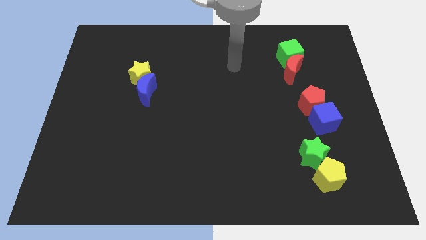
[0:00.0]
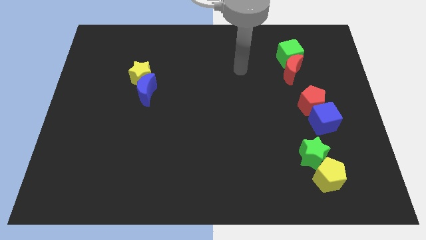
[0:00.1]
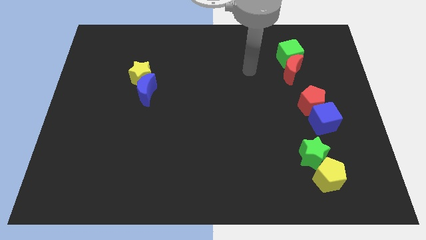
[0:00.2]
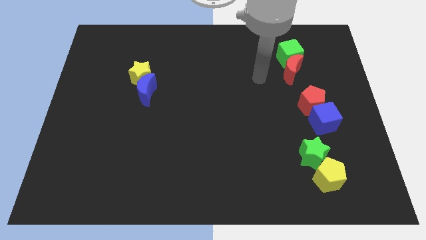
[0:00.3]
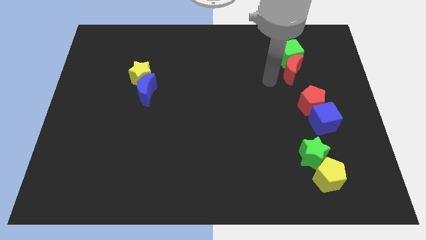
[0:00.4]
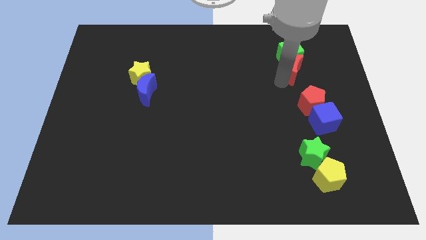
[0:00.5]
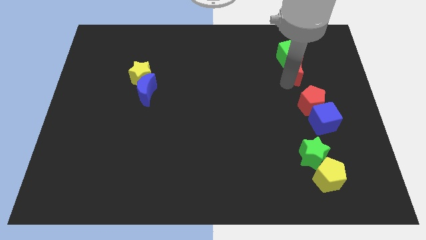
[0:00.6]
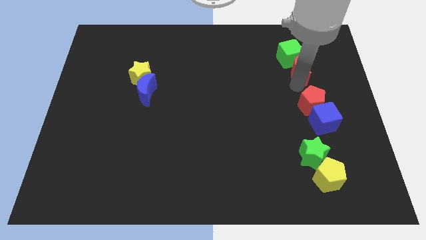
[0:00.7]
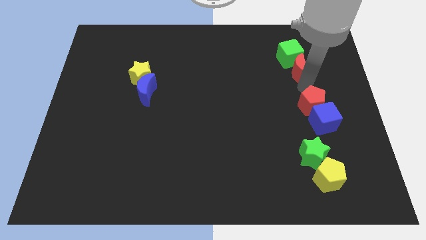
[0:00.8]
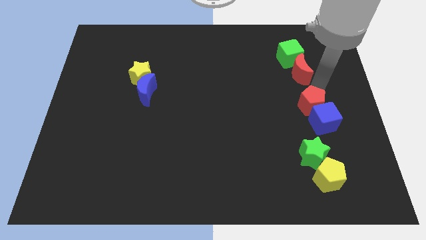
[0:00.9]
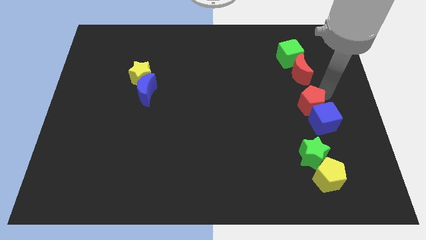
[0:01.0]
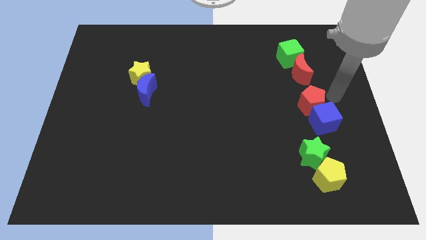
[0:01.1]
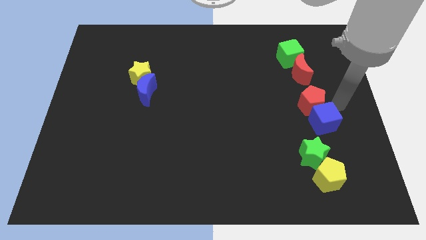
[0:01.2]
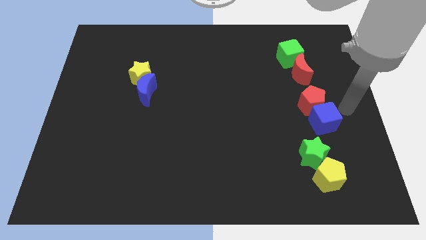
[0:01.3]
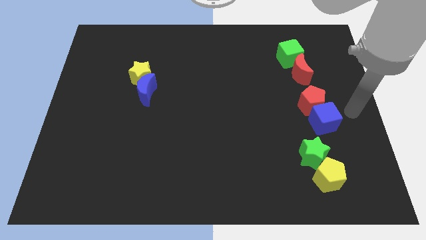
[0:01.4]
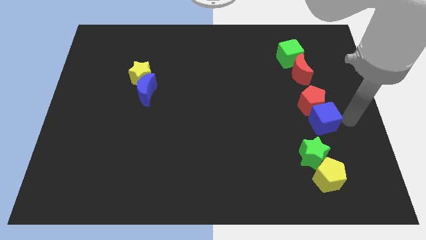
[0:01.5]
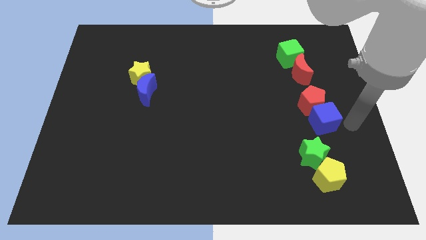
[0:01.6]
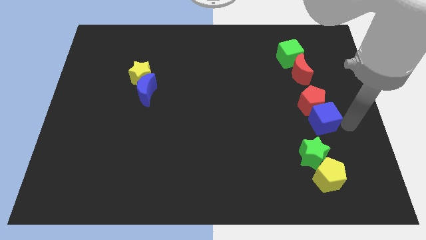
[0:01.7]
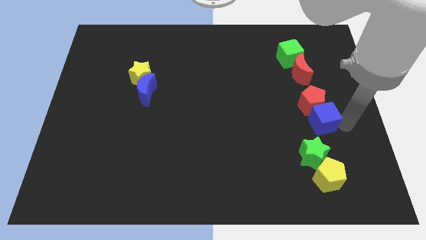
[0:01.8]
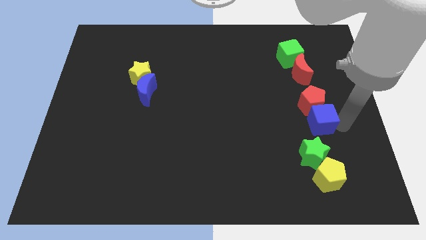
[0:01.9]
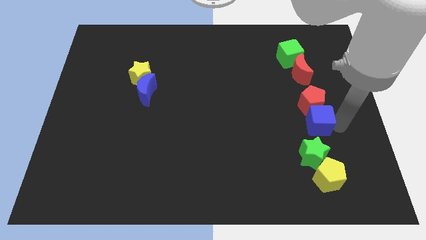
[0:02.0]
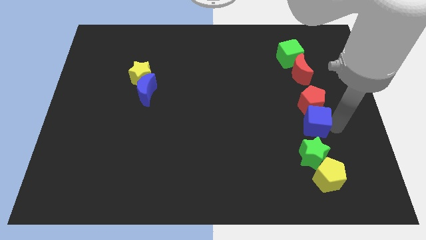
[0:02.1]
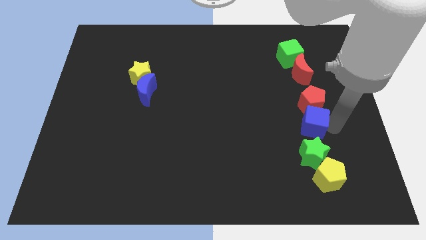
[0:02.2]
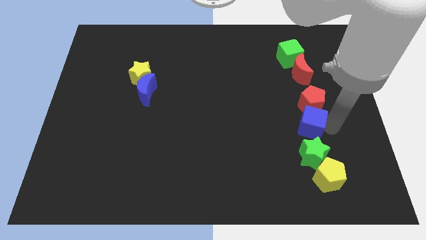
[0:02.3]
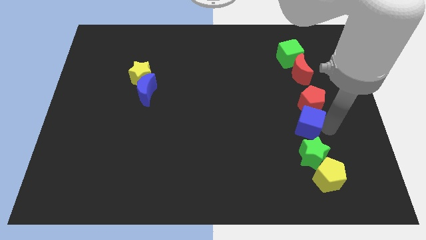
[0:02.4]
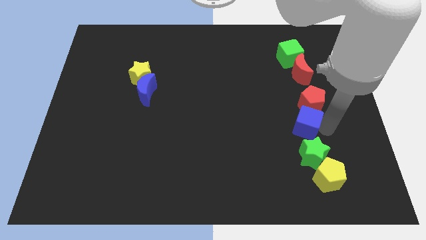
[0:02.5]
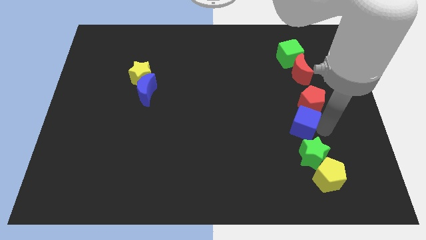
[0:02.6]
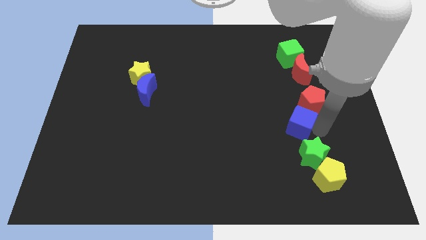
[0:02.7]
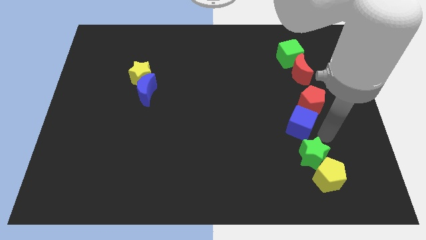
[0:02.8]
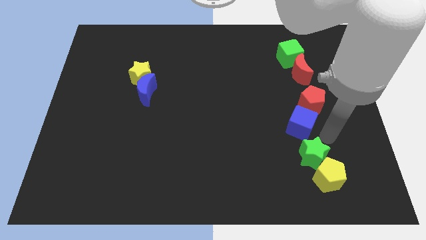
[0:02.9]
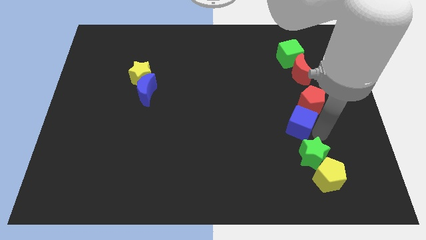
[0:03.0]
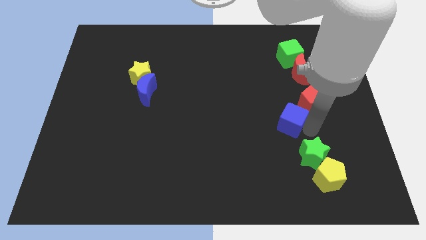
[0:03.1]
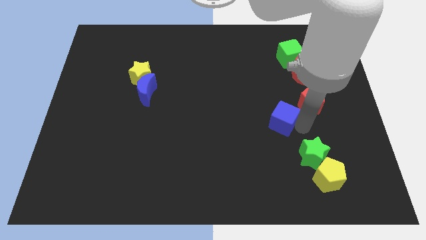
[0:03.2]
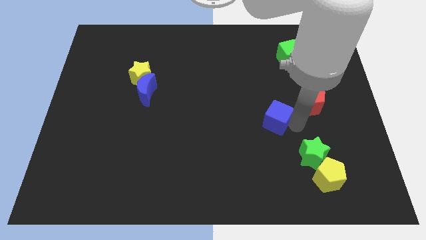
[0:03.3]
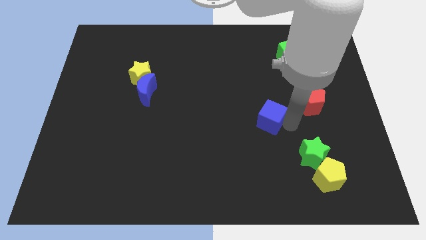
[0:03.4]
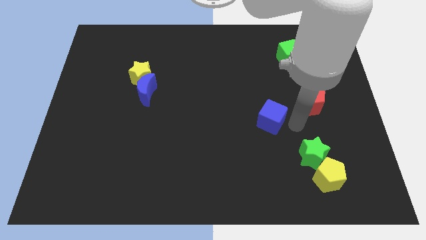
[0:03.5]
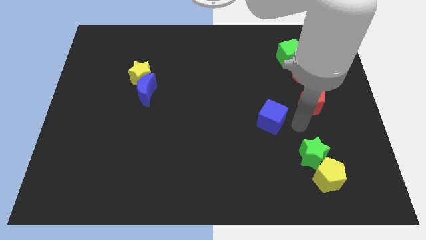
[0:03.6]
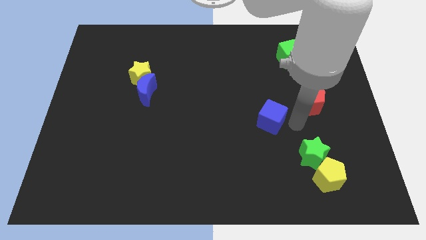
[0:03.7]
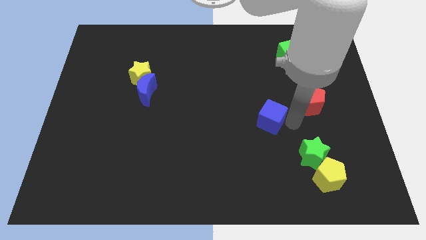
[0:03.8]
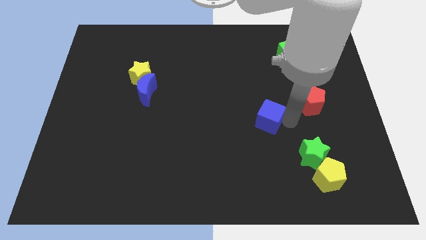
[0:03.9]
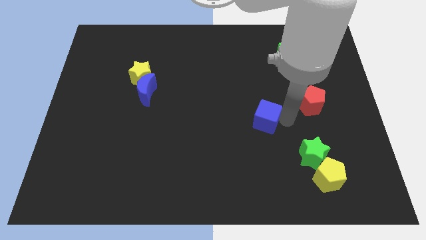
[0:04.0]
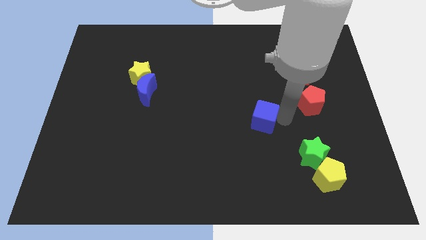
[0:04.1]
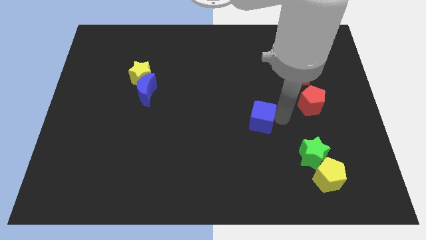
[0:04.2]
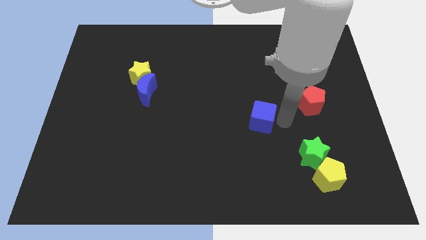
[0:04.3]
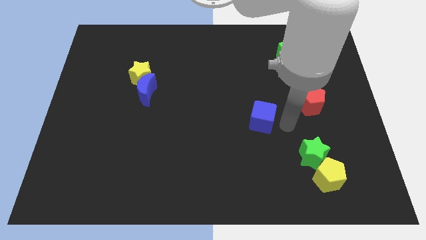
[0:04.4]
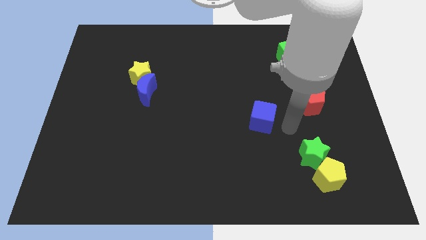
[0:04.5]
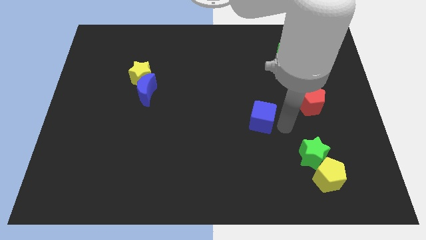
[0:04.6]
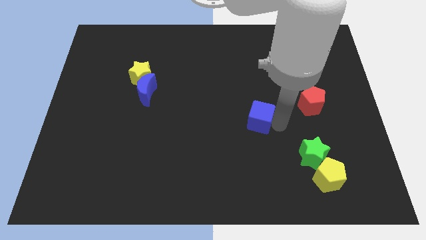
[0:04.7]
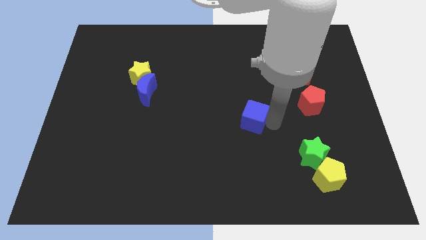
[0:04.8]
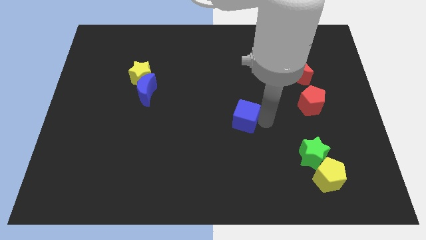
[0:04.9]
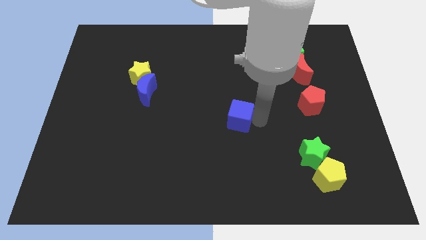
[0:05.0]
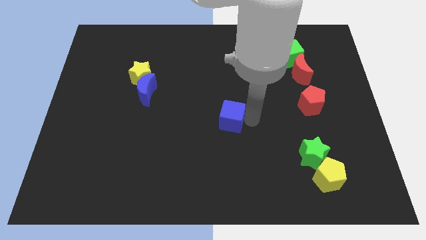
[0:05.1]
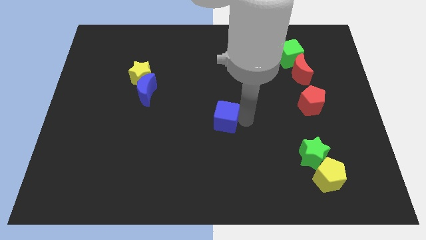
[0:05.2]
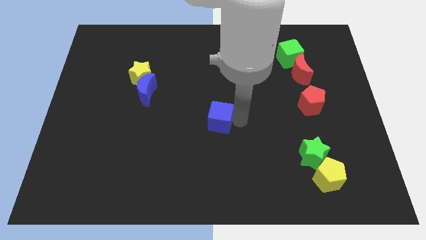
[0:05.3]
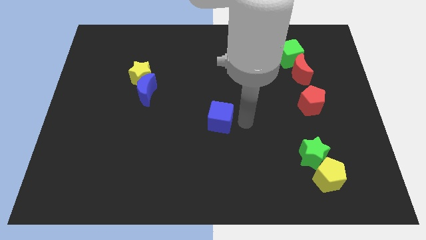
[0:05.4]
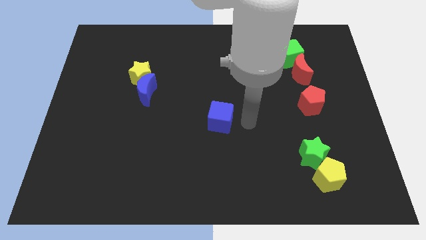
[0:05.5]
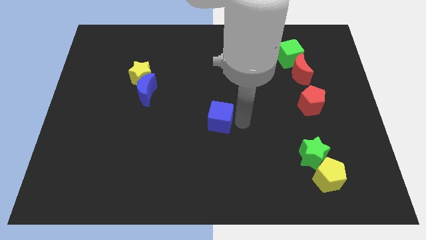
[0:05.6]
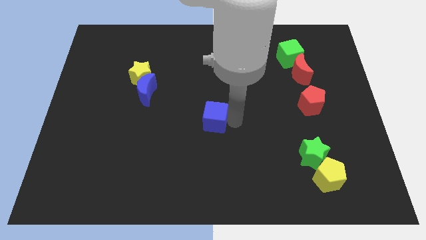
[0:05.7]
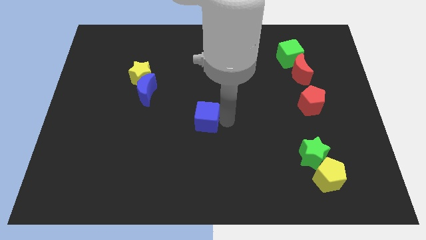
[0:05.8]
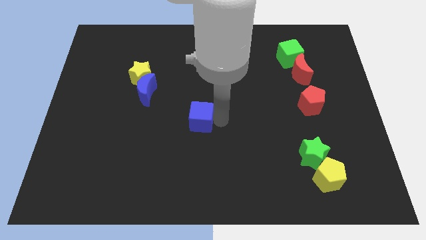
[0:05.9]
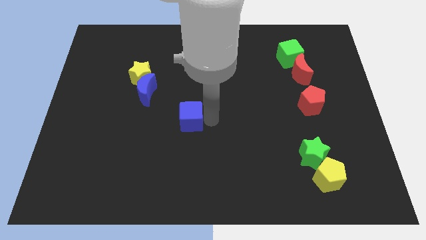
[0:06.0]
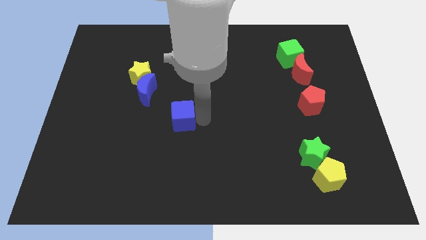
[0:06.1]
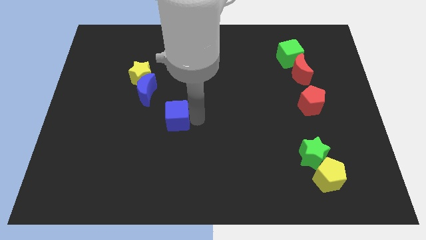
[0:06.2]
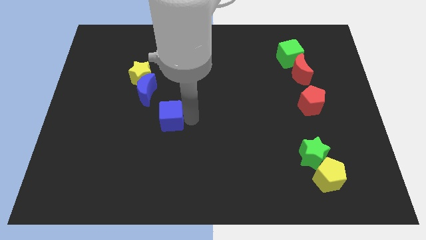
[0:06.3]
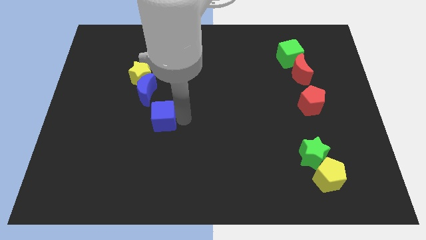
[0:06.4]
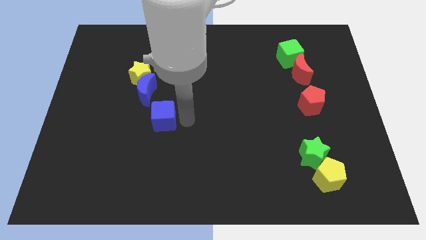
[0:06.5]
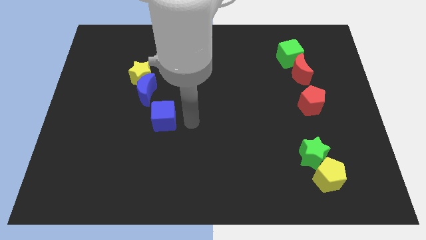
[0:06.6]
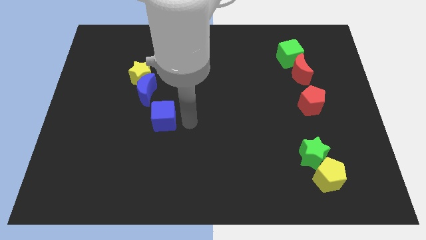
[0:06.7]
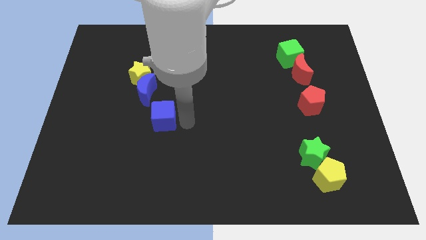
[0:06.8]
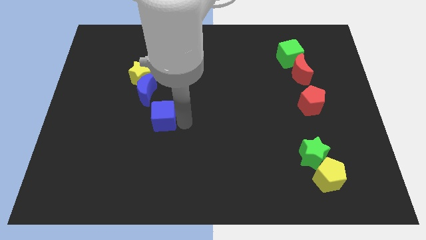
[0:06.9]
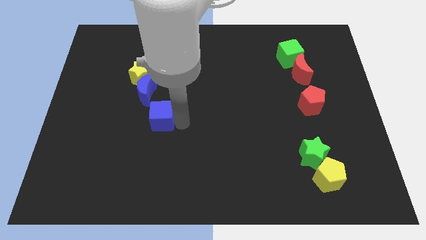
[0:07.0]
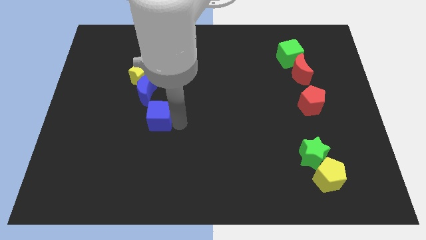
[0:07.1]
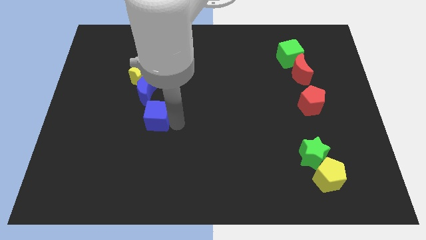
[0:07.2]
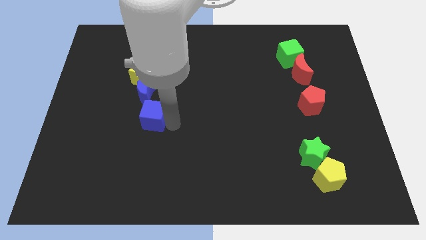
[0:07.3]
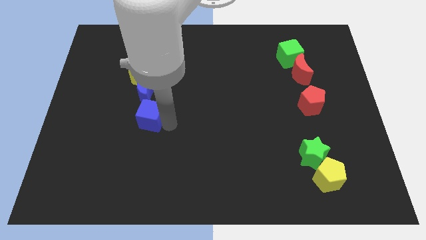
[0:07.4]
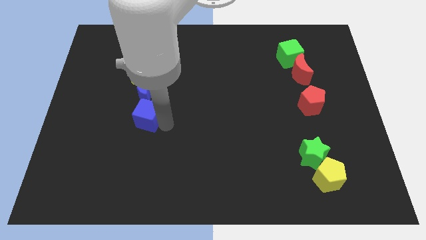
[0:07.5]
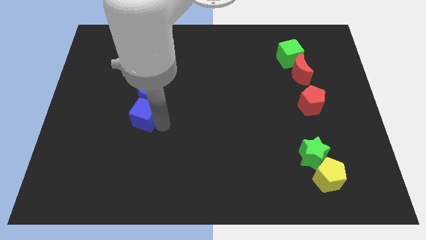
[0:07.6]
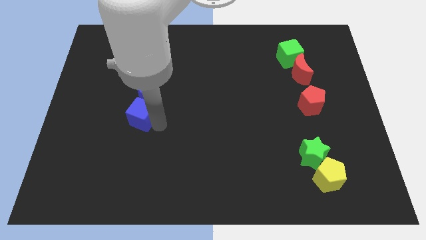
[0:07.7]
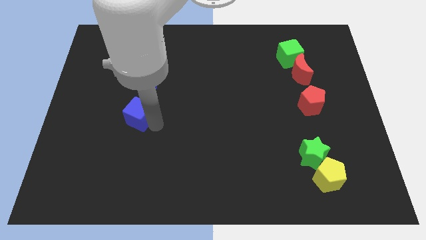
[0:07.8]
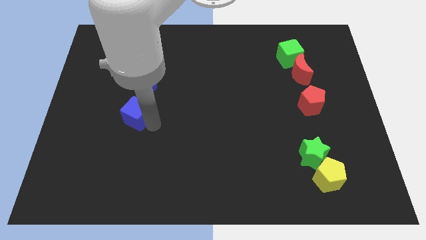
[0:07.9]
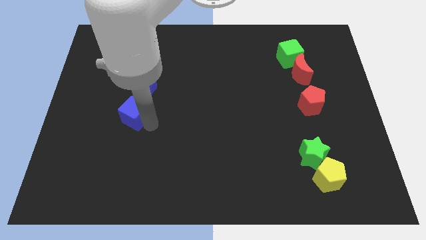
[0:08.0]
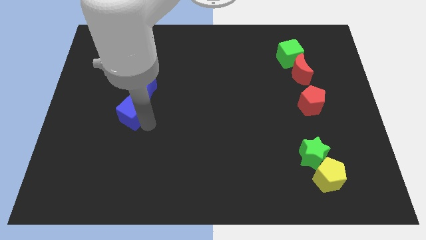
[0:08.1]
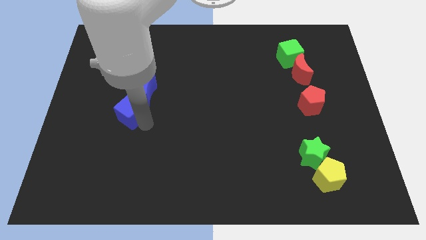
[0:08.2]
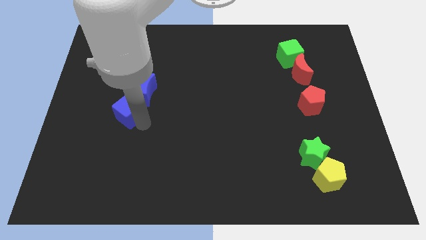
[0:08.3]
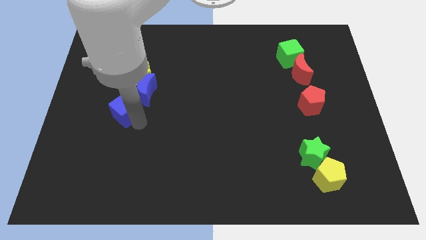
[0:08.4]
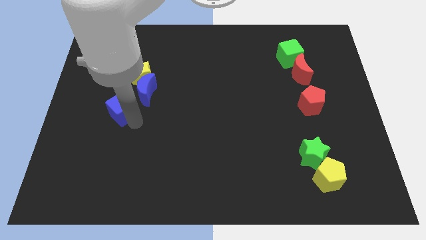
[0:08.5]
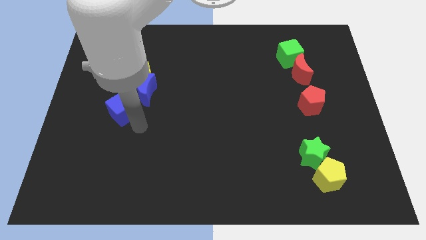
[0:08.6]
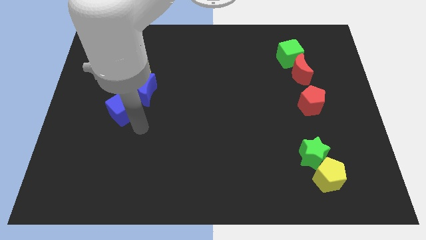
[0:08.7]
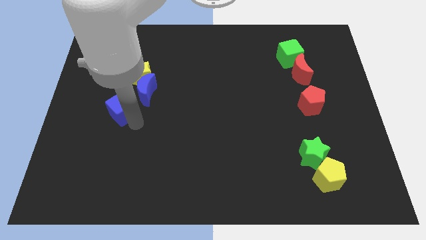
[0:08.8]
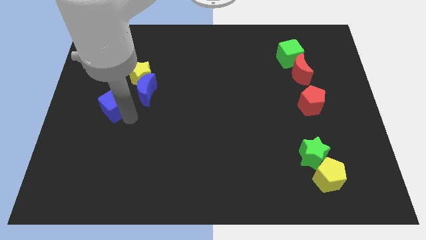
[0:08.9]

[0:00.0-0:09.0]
push the blue cube to the left of the blue moon
